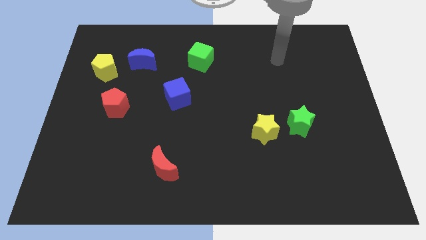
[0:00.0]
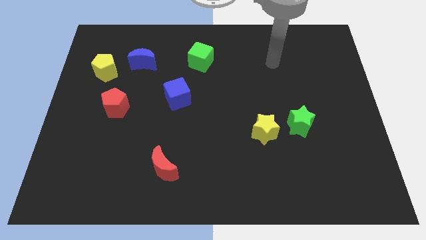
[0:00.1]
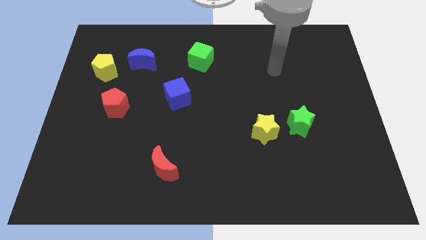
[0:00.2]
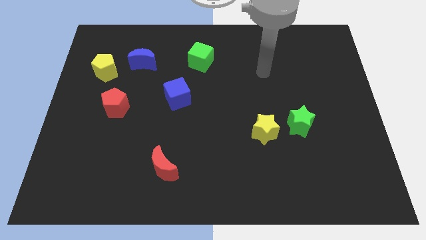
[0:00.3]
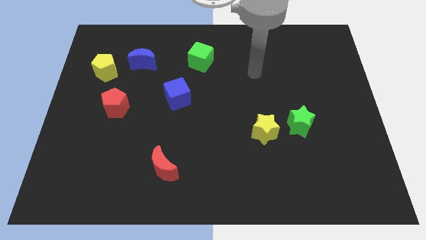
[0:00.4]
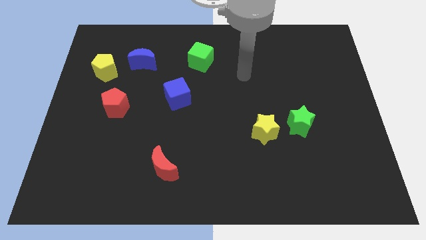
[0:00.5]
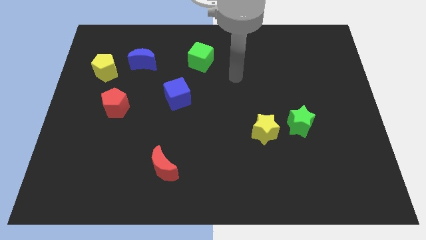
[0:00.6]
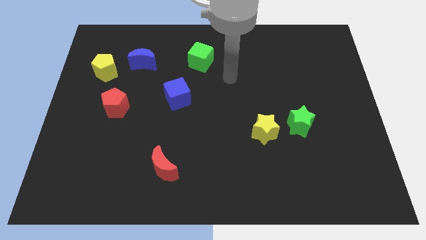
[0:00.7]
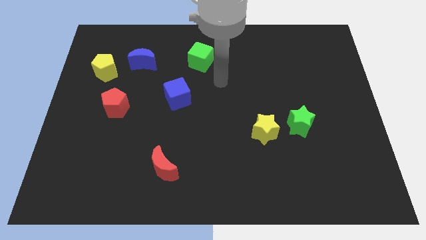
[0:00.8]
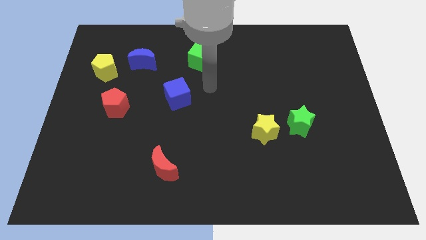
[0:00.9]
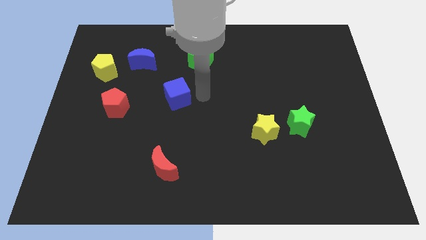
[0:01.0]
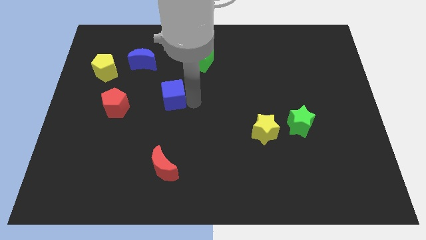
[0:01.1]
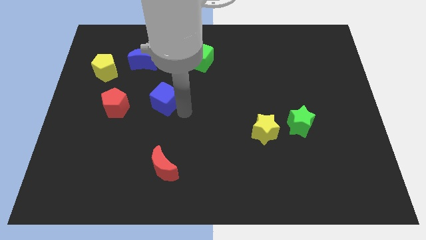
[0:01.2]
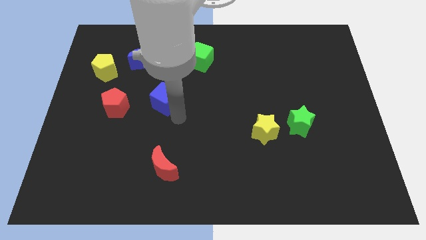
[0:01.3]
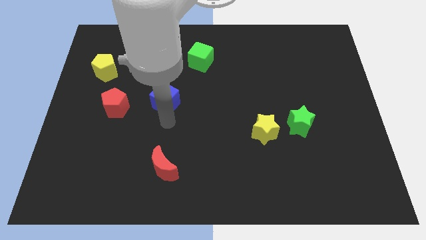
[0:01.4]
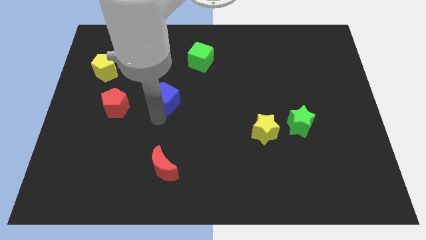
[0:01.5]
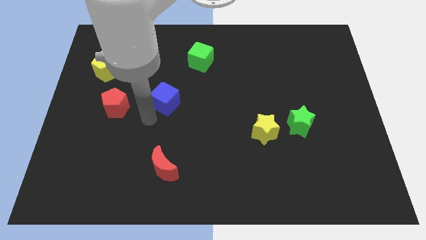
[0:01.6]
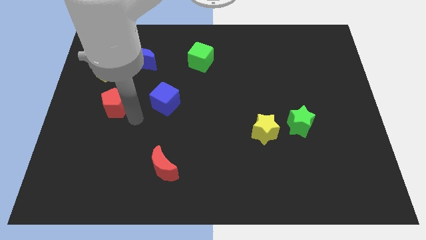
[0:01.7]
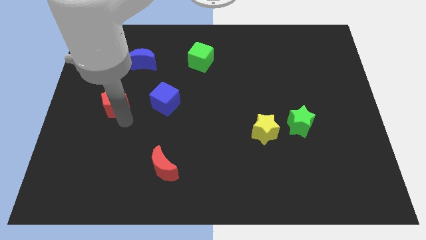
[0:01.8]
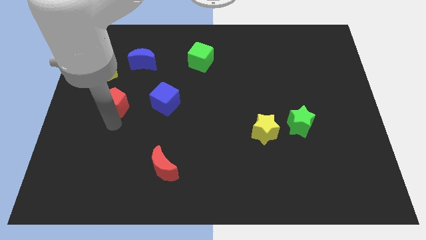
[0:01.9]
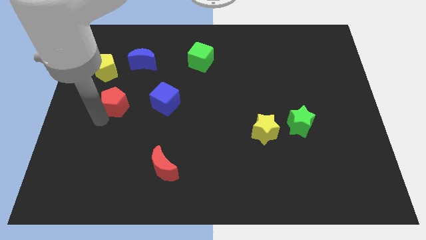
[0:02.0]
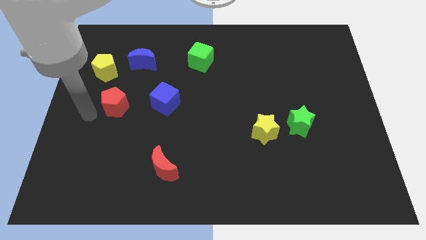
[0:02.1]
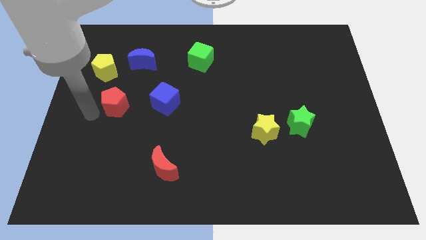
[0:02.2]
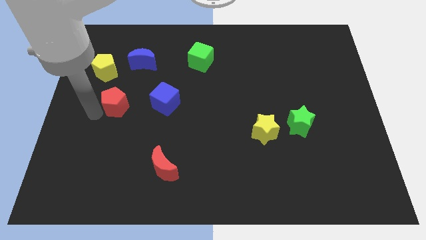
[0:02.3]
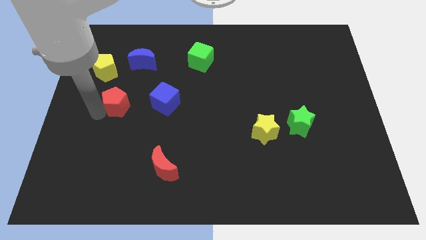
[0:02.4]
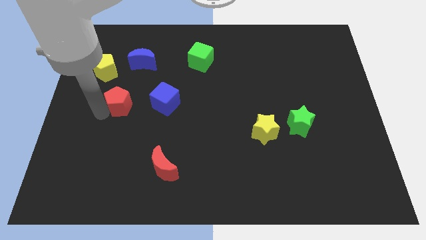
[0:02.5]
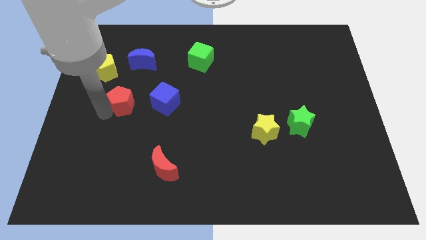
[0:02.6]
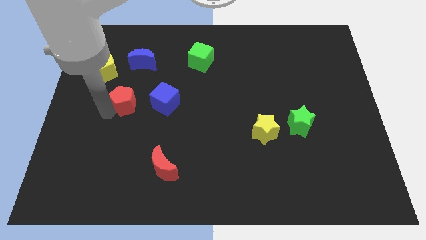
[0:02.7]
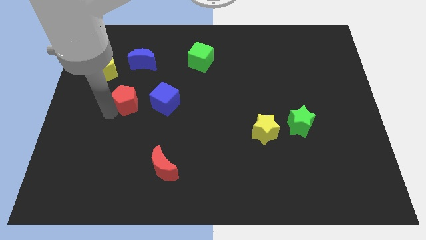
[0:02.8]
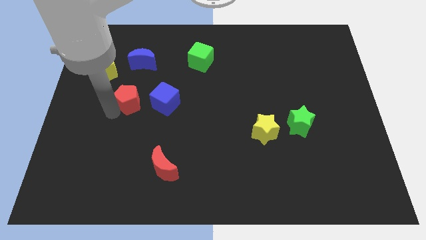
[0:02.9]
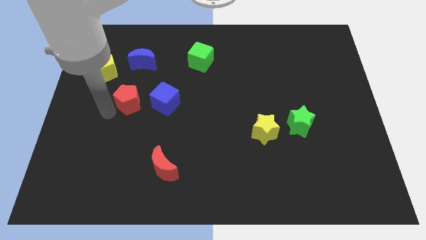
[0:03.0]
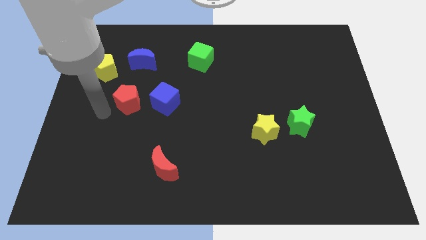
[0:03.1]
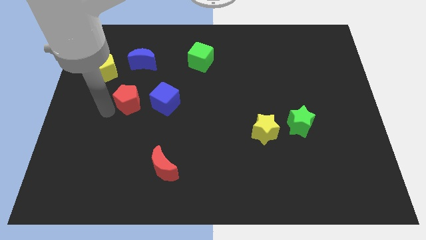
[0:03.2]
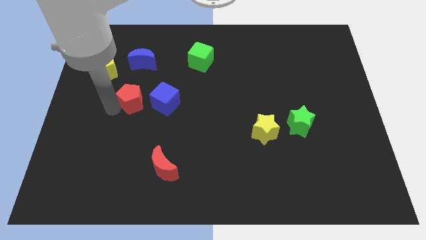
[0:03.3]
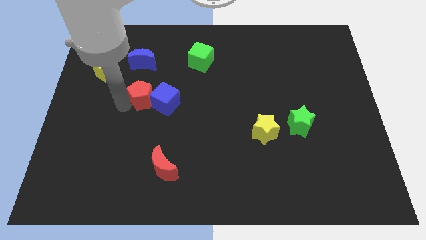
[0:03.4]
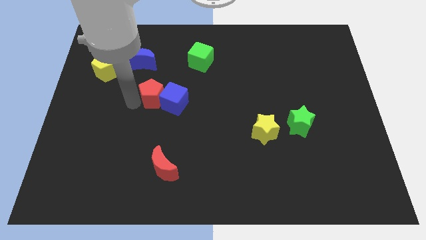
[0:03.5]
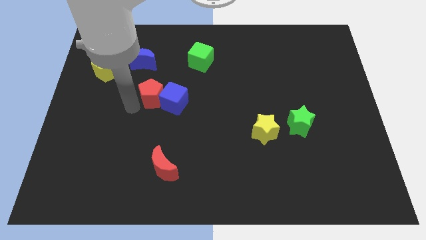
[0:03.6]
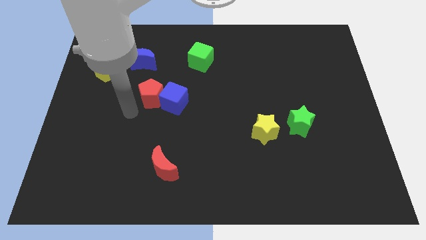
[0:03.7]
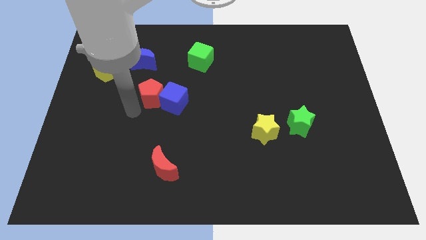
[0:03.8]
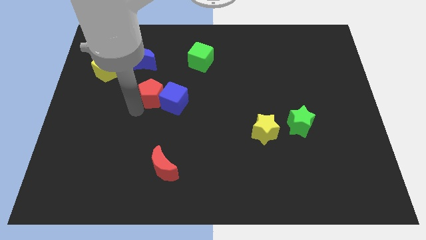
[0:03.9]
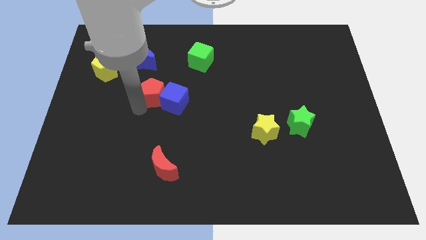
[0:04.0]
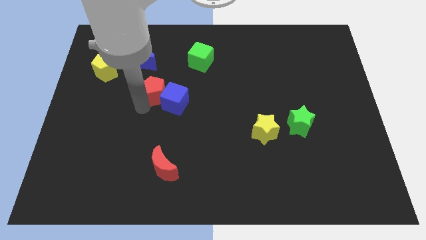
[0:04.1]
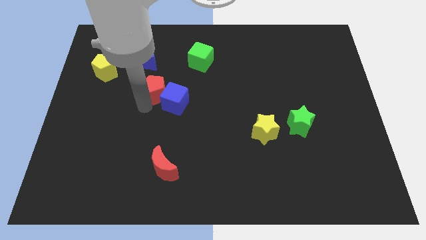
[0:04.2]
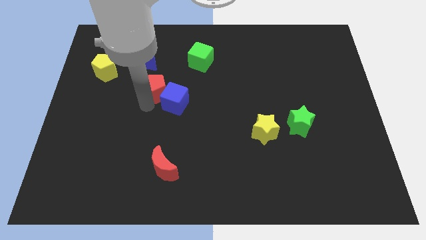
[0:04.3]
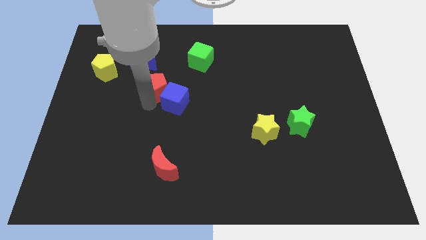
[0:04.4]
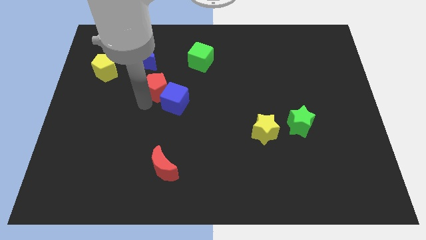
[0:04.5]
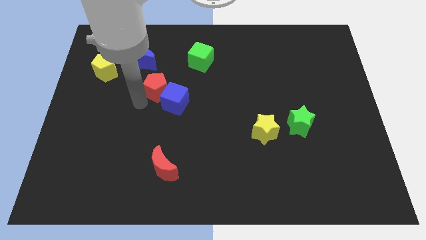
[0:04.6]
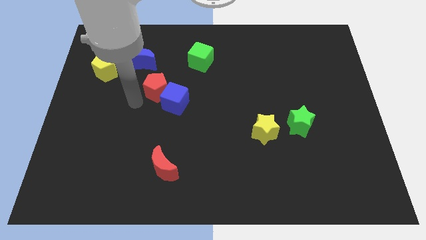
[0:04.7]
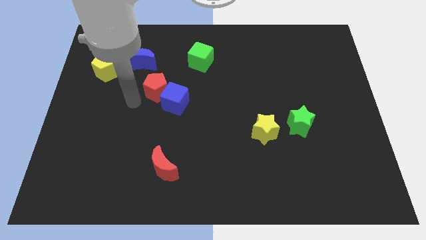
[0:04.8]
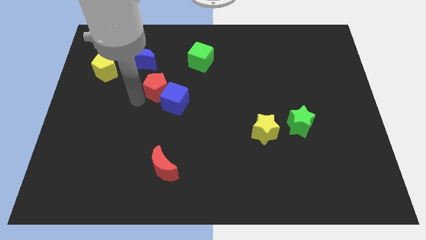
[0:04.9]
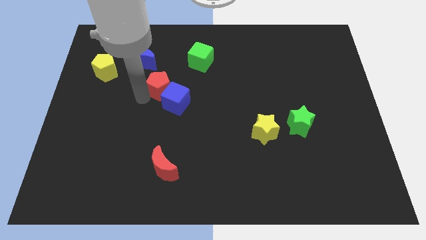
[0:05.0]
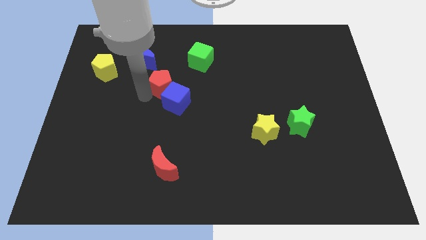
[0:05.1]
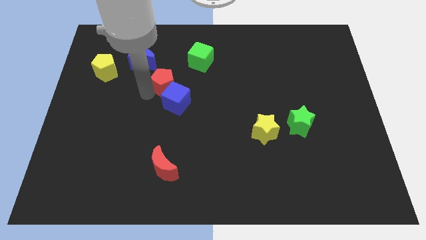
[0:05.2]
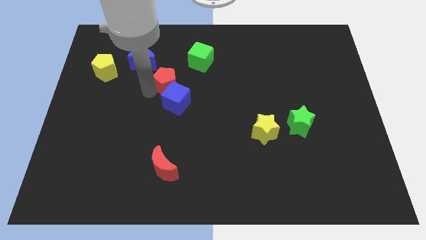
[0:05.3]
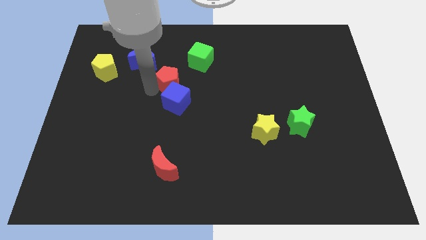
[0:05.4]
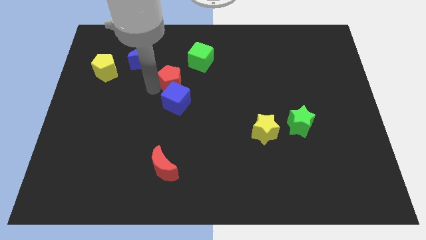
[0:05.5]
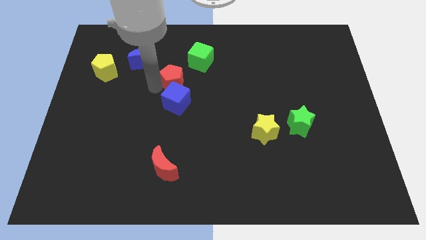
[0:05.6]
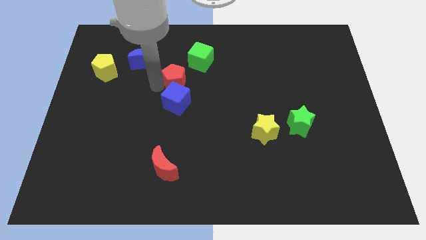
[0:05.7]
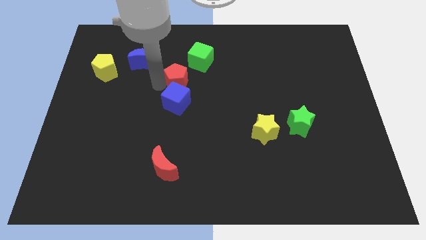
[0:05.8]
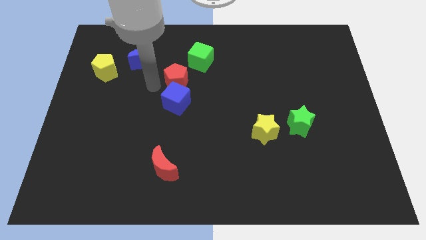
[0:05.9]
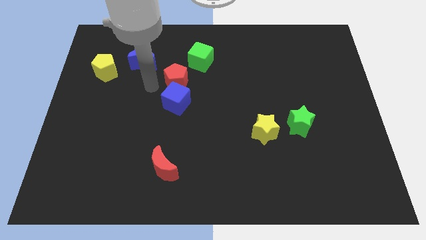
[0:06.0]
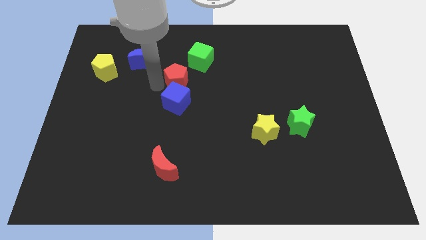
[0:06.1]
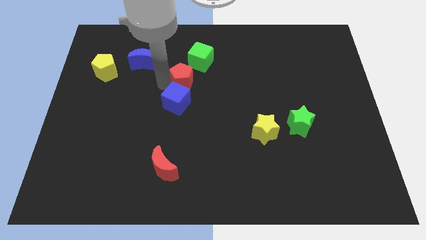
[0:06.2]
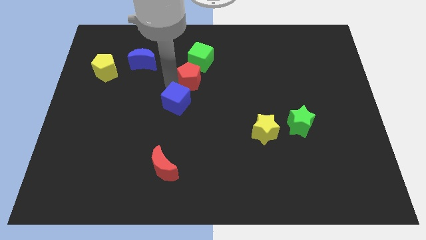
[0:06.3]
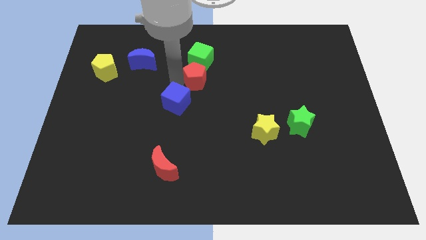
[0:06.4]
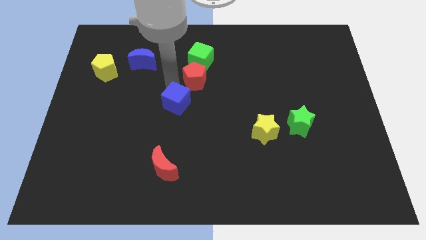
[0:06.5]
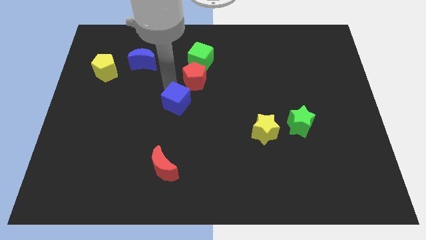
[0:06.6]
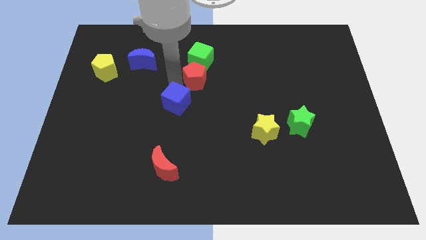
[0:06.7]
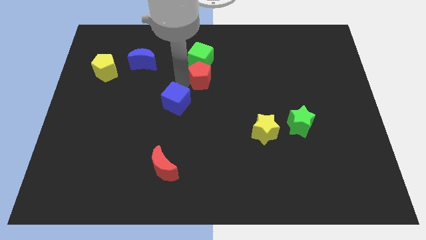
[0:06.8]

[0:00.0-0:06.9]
put the red pentagon to the bottom right side of the green cube
